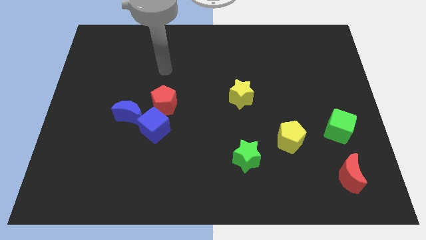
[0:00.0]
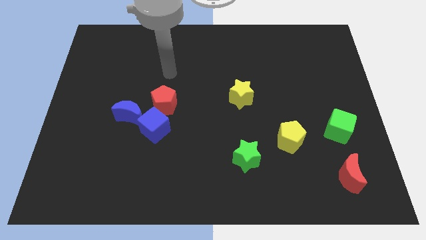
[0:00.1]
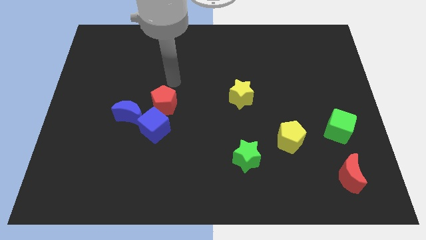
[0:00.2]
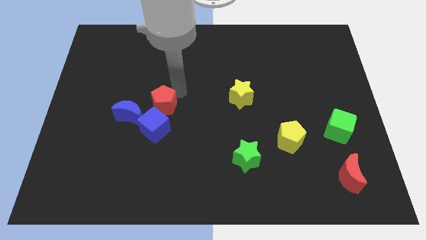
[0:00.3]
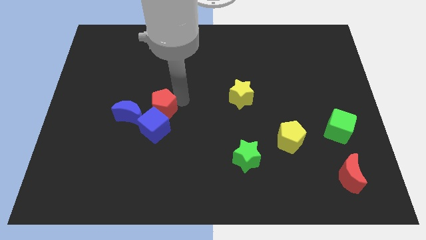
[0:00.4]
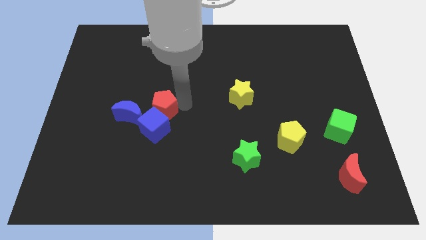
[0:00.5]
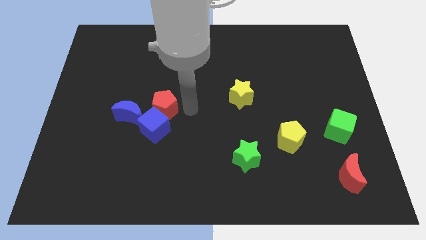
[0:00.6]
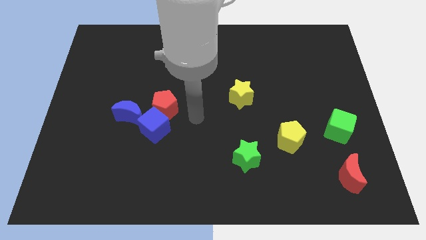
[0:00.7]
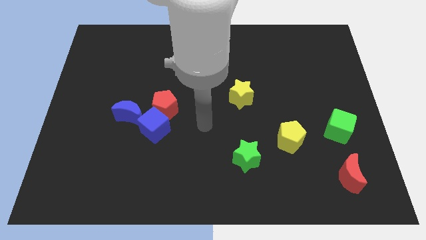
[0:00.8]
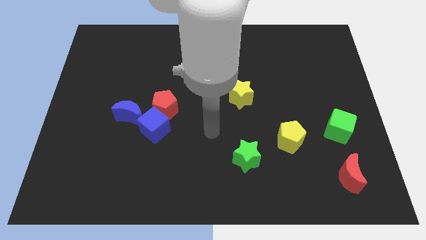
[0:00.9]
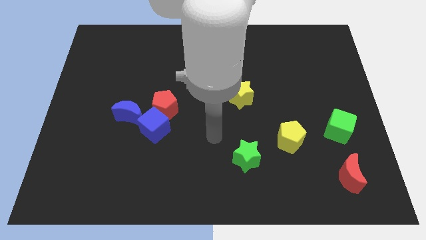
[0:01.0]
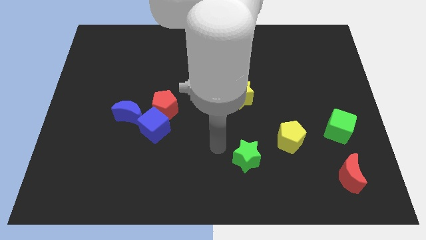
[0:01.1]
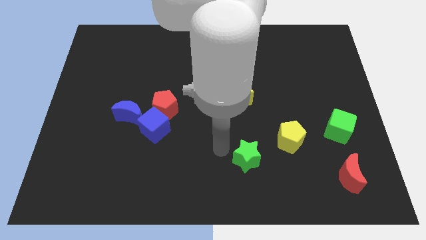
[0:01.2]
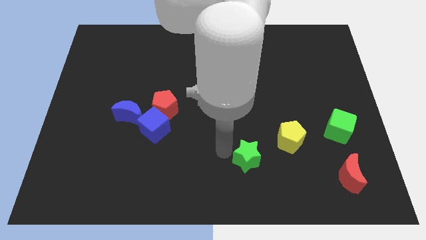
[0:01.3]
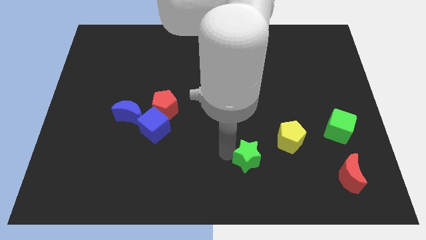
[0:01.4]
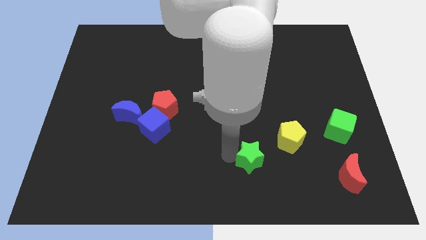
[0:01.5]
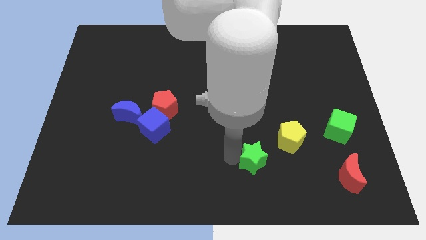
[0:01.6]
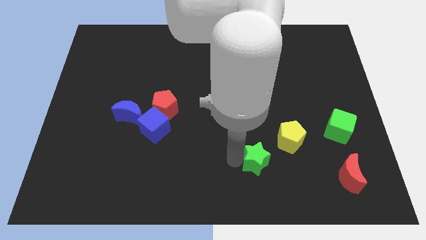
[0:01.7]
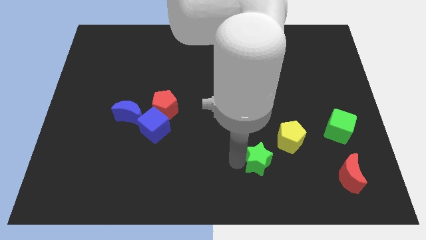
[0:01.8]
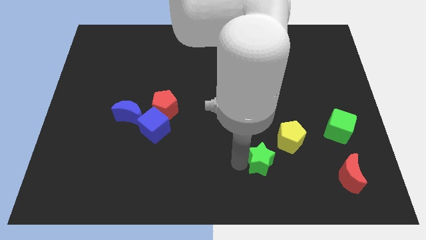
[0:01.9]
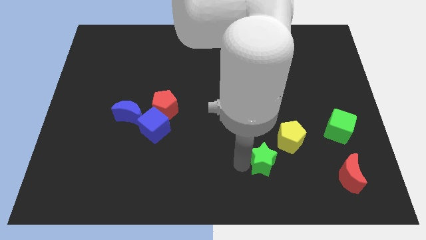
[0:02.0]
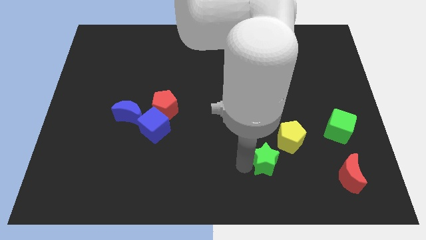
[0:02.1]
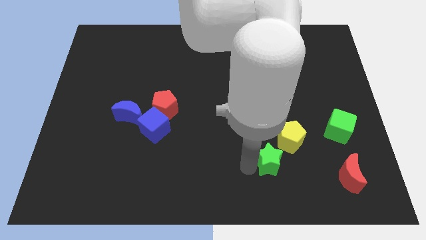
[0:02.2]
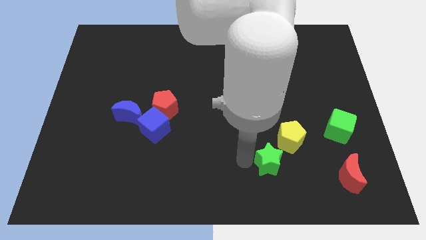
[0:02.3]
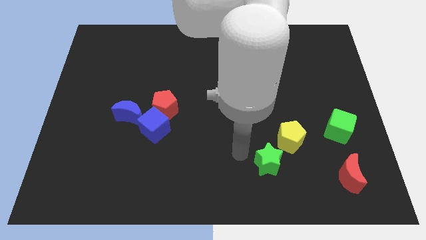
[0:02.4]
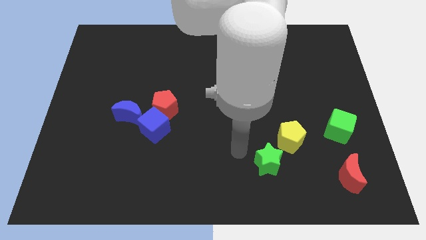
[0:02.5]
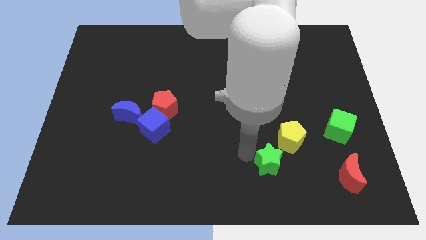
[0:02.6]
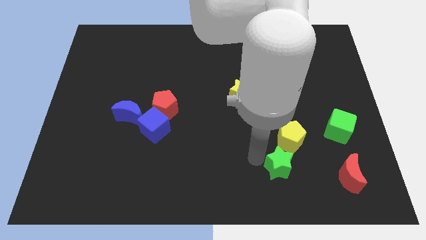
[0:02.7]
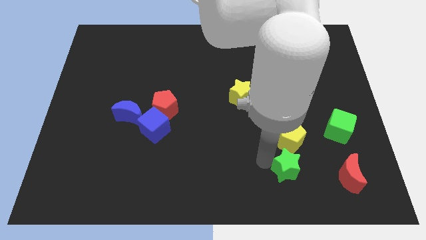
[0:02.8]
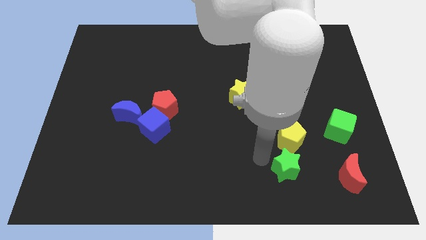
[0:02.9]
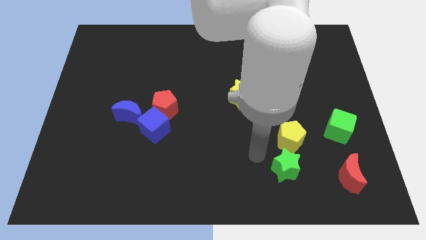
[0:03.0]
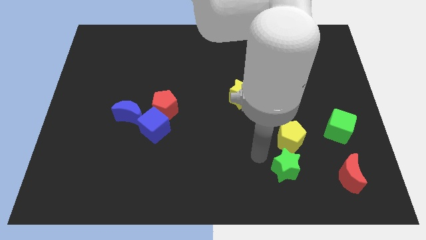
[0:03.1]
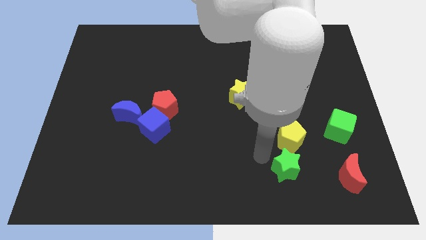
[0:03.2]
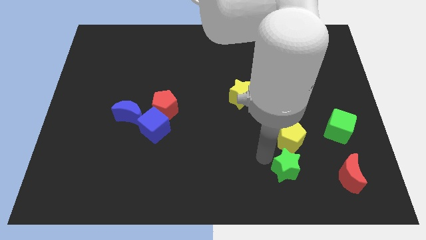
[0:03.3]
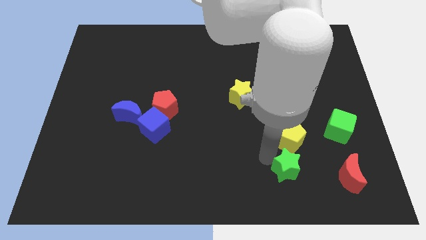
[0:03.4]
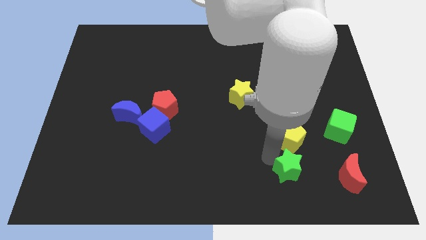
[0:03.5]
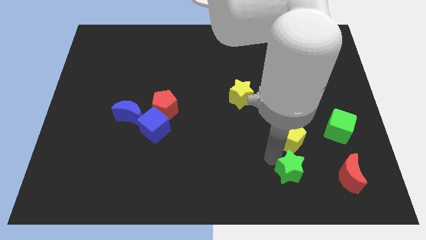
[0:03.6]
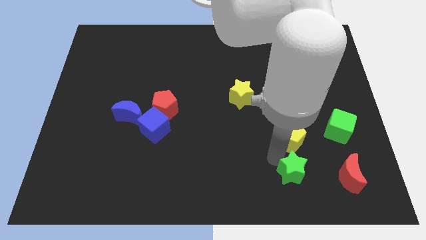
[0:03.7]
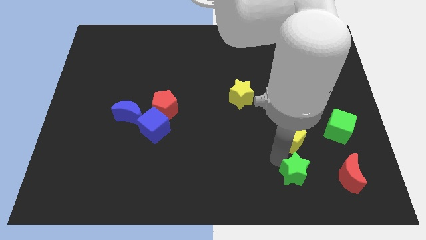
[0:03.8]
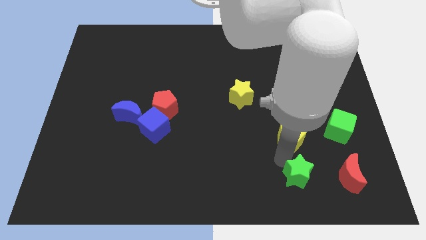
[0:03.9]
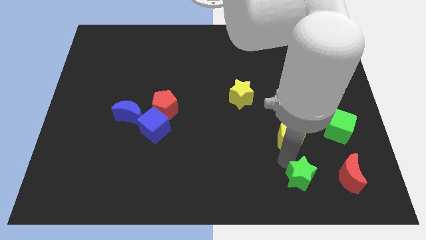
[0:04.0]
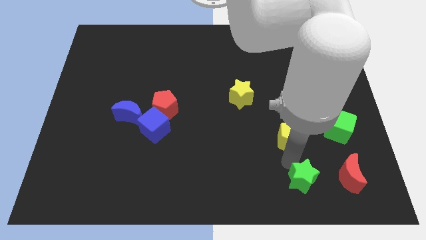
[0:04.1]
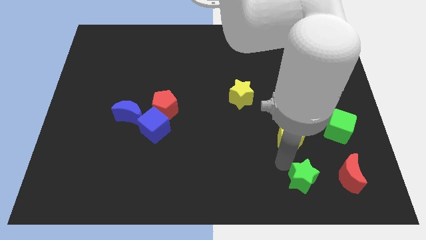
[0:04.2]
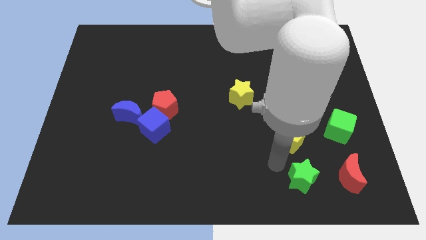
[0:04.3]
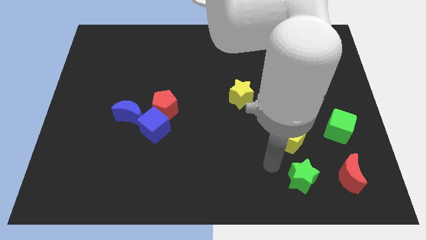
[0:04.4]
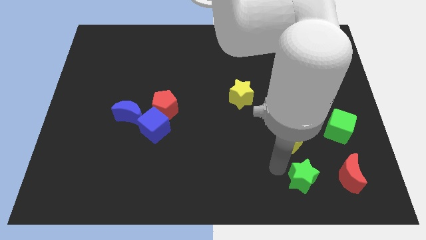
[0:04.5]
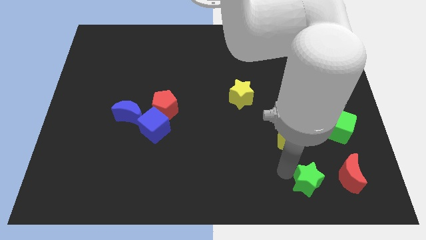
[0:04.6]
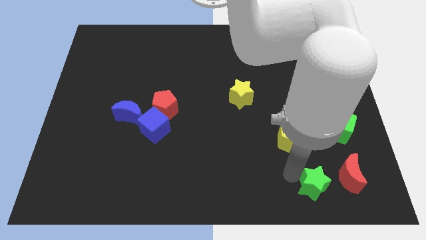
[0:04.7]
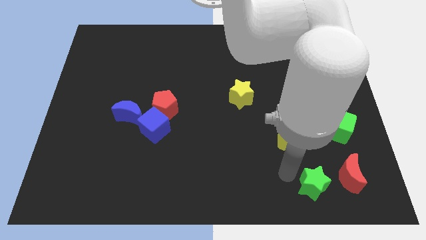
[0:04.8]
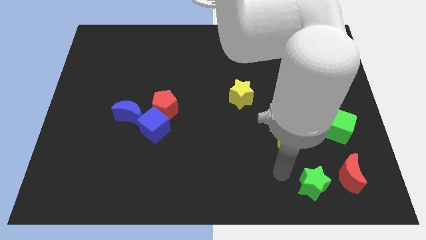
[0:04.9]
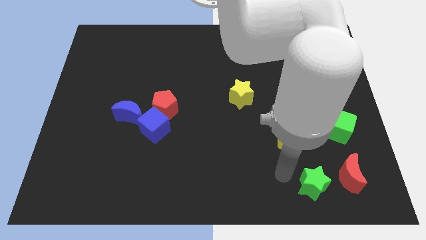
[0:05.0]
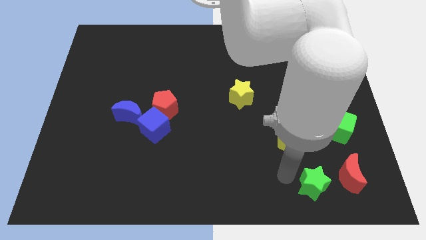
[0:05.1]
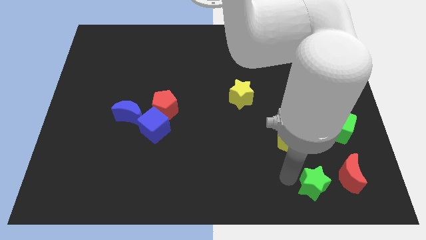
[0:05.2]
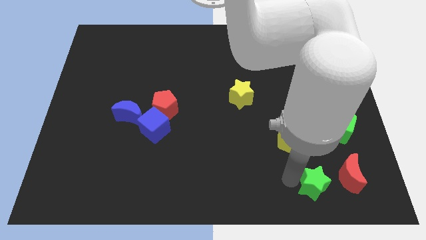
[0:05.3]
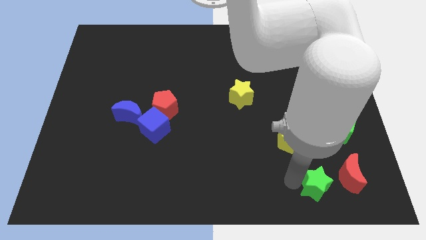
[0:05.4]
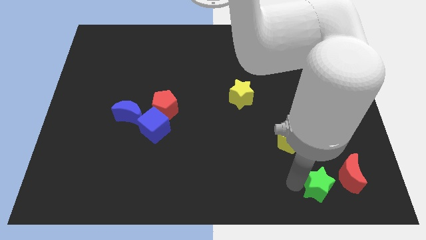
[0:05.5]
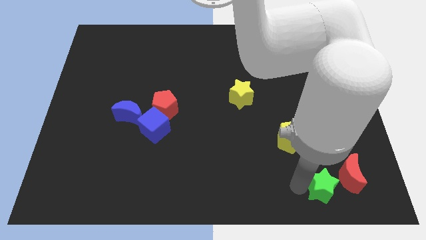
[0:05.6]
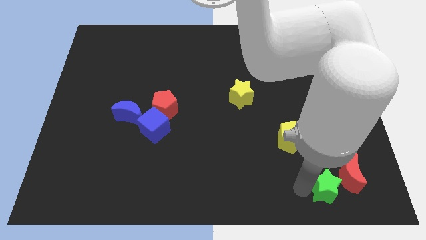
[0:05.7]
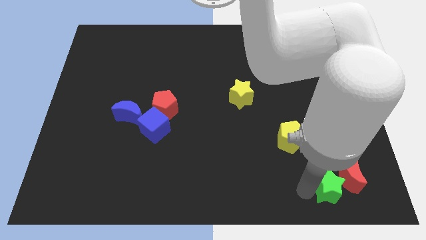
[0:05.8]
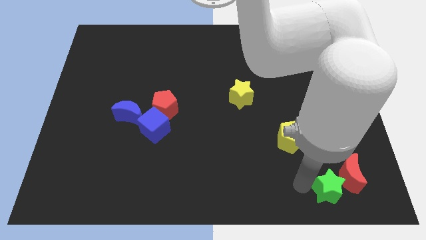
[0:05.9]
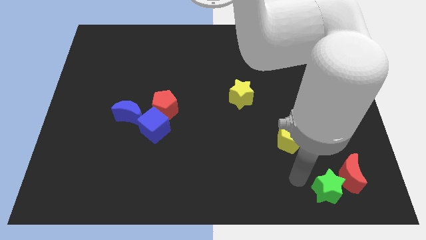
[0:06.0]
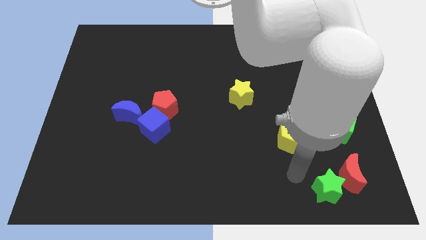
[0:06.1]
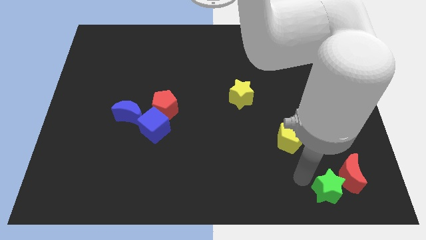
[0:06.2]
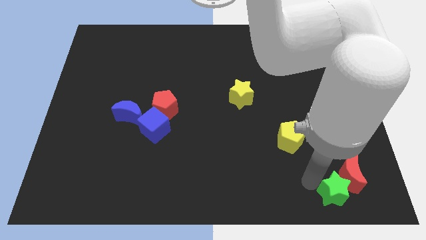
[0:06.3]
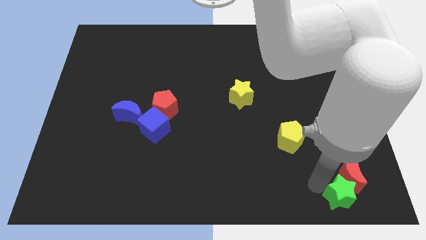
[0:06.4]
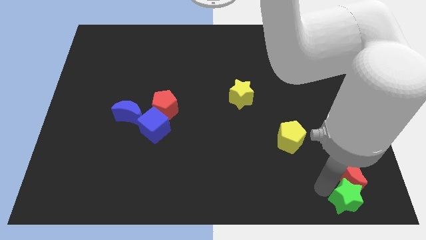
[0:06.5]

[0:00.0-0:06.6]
put the green star to the bottom right

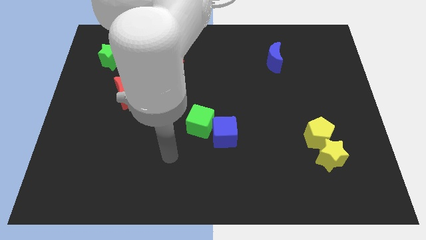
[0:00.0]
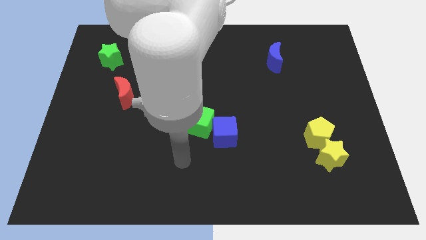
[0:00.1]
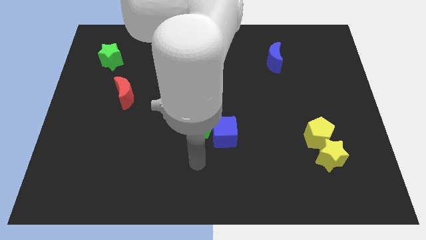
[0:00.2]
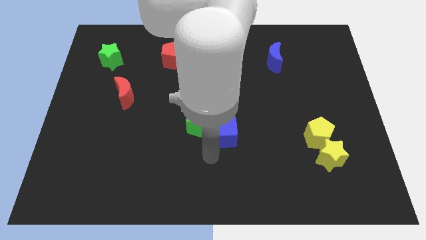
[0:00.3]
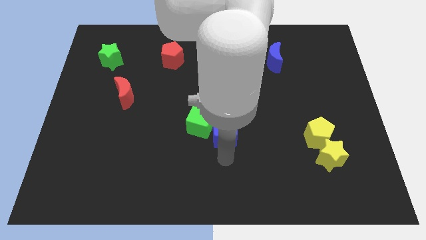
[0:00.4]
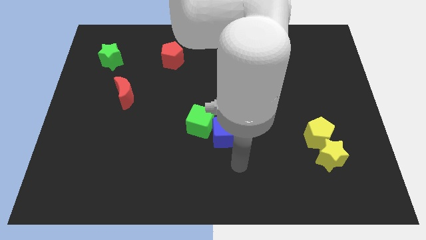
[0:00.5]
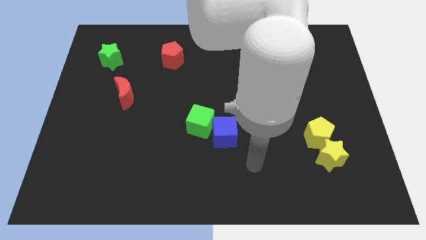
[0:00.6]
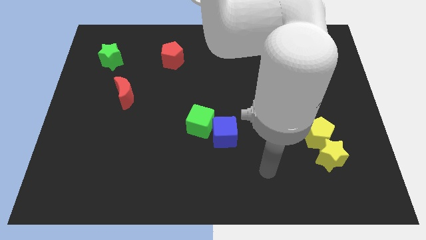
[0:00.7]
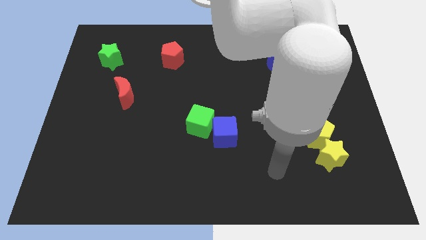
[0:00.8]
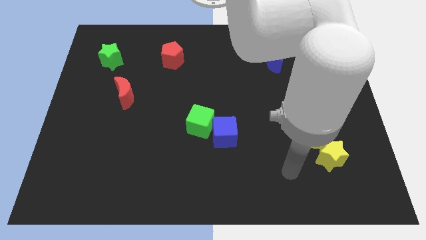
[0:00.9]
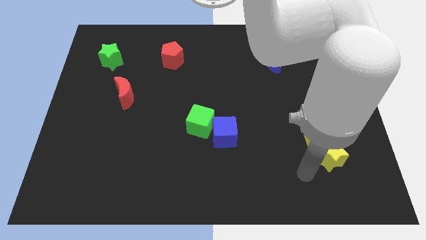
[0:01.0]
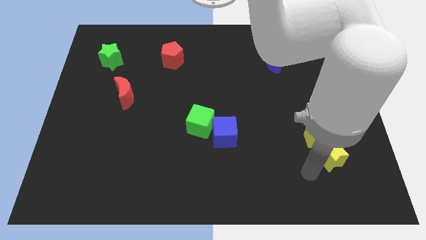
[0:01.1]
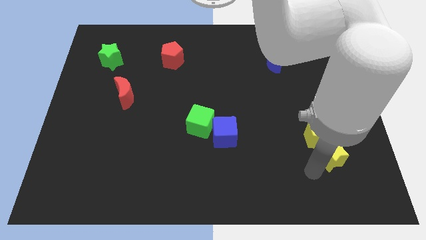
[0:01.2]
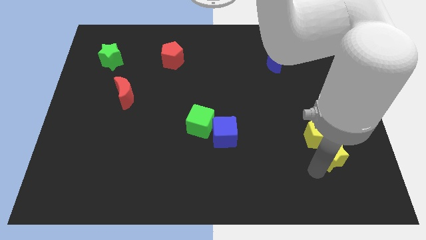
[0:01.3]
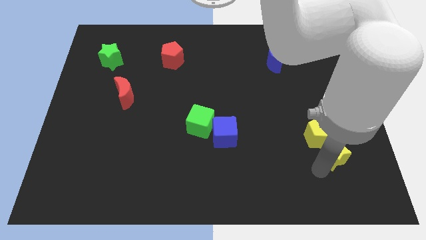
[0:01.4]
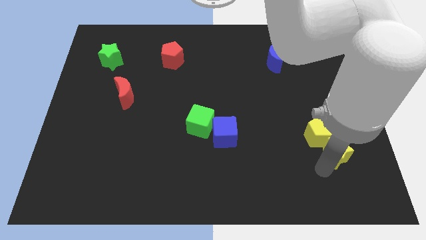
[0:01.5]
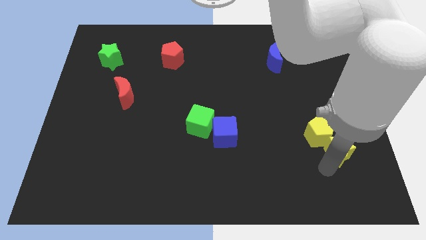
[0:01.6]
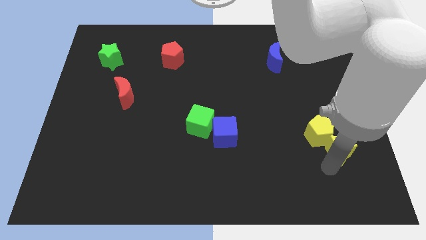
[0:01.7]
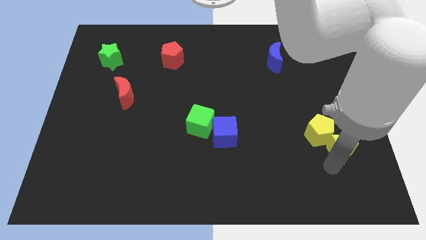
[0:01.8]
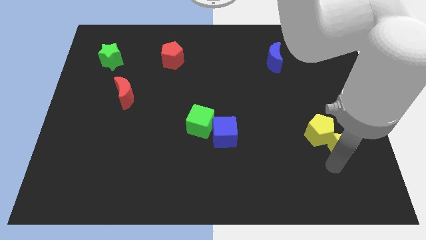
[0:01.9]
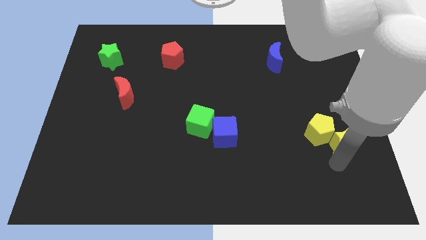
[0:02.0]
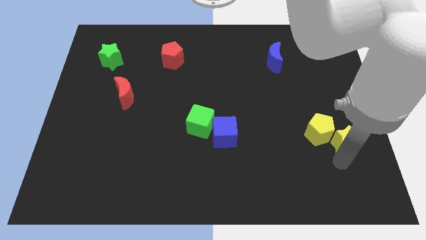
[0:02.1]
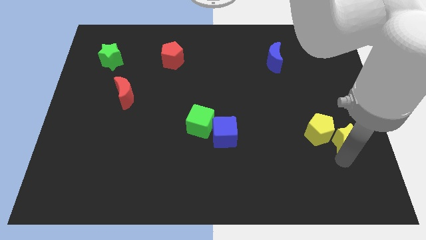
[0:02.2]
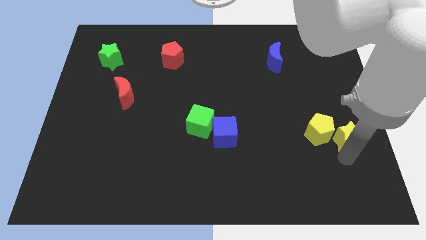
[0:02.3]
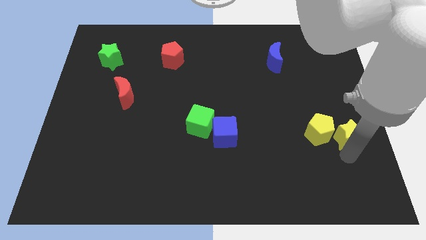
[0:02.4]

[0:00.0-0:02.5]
move the yellow star to the right side
